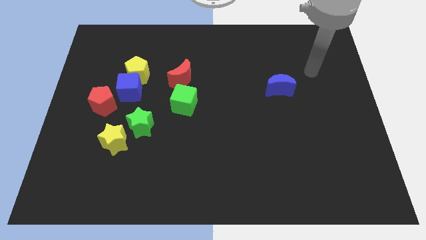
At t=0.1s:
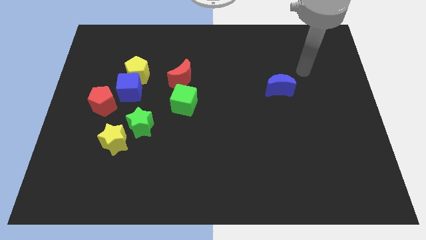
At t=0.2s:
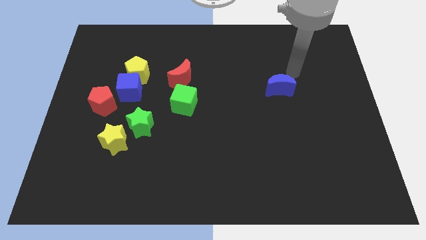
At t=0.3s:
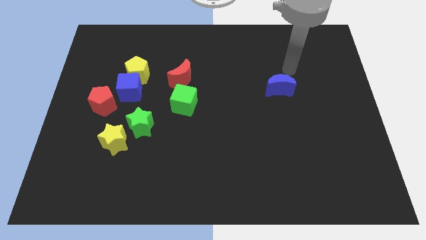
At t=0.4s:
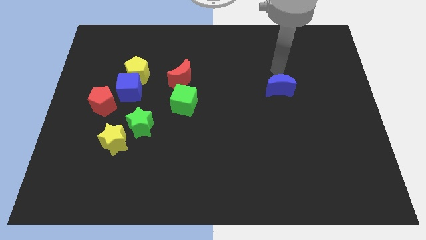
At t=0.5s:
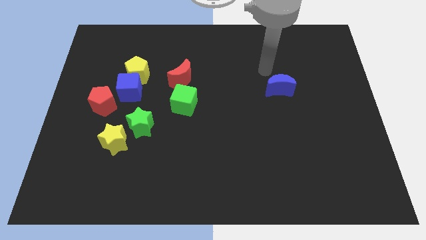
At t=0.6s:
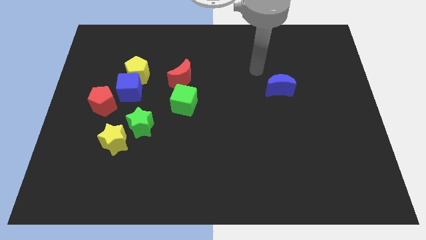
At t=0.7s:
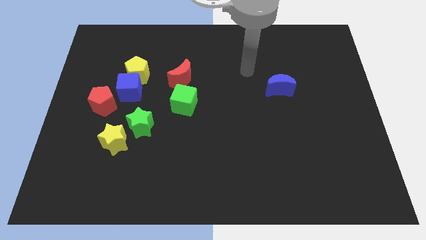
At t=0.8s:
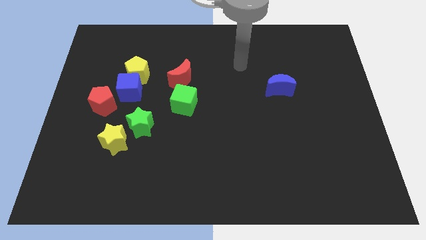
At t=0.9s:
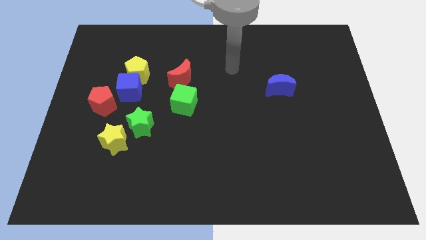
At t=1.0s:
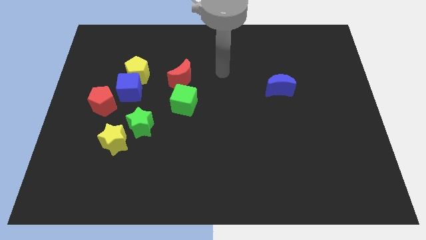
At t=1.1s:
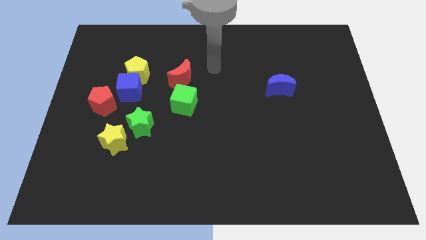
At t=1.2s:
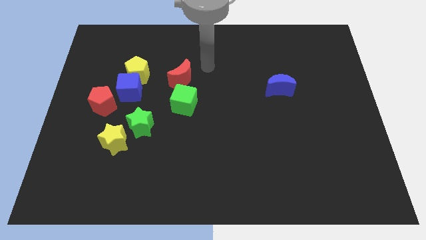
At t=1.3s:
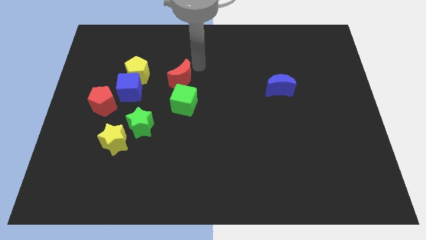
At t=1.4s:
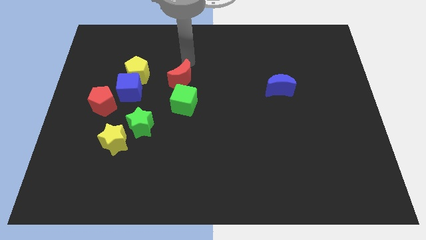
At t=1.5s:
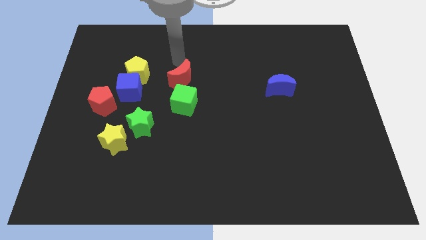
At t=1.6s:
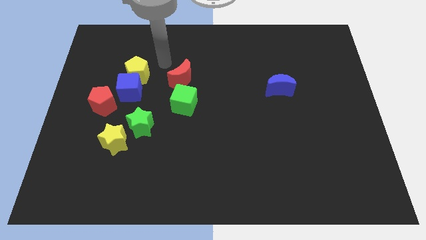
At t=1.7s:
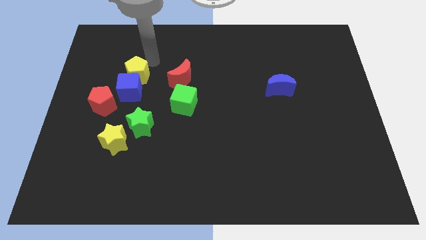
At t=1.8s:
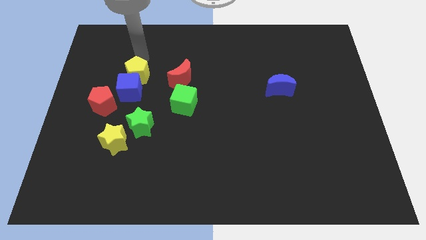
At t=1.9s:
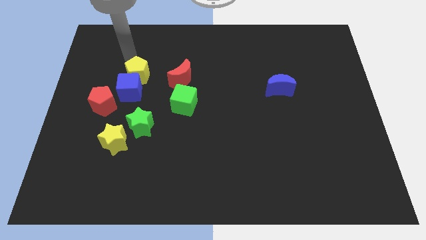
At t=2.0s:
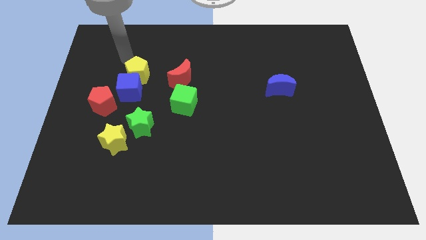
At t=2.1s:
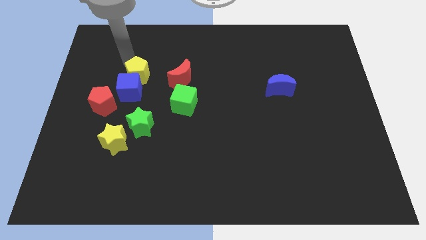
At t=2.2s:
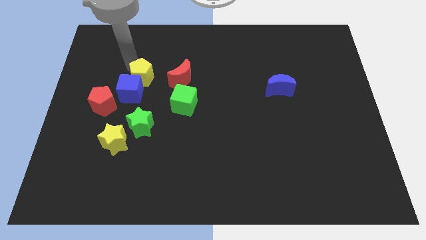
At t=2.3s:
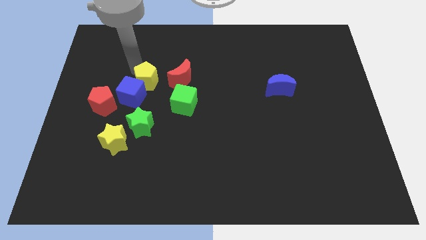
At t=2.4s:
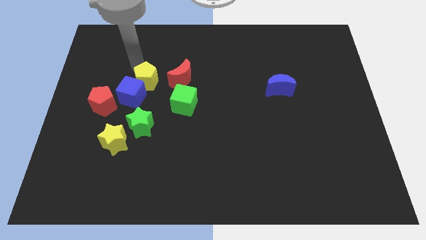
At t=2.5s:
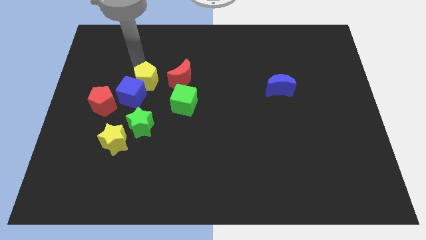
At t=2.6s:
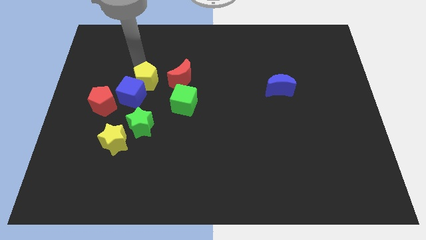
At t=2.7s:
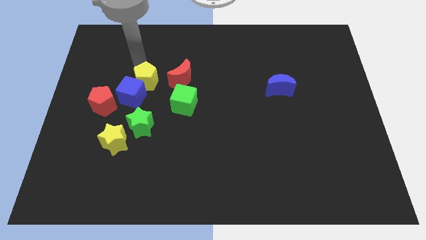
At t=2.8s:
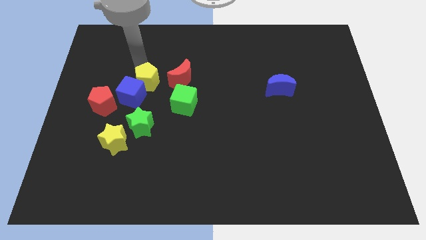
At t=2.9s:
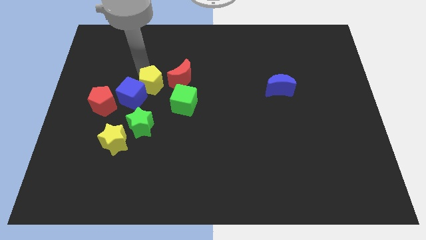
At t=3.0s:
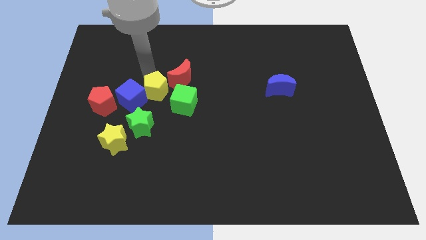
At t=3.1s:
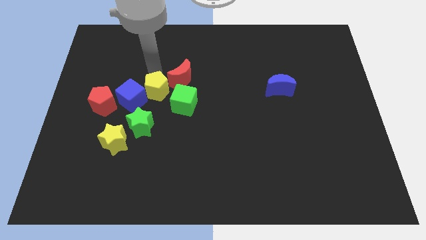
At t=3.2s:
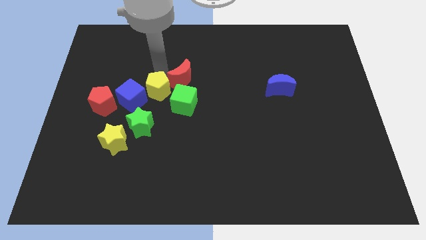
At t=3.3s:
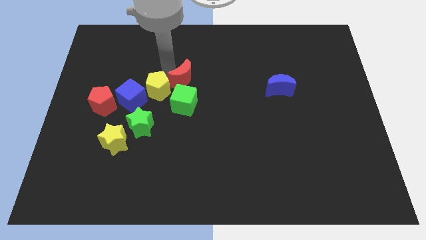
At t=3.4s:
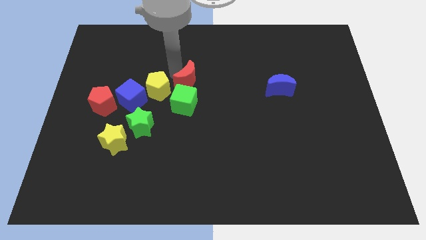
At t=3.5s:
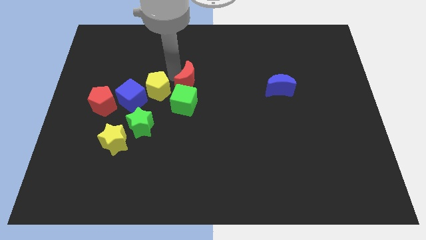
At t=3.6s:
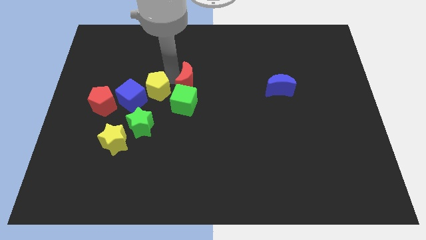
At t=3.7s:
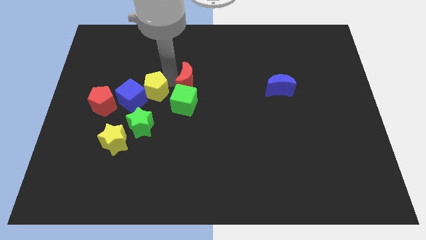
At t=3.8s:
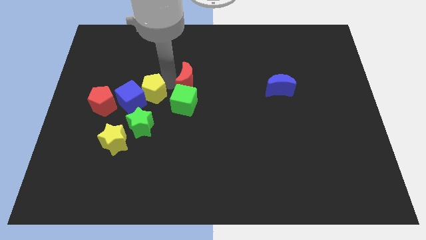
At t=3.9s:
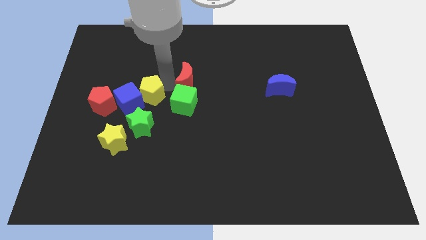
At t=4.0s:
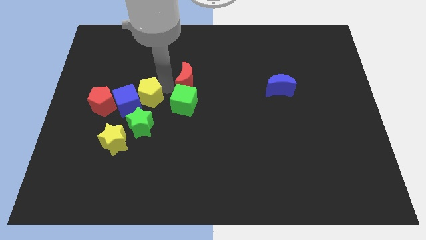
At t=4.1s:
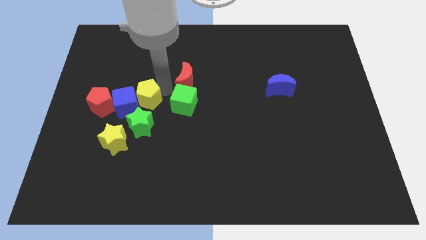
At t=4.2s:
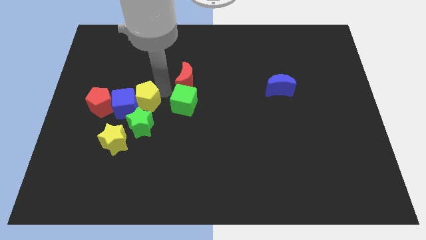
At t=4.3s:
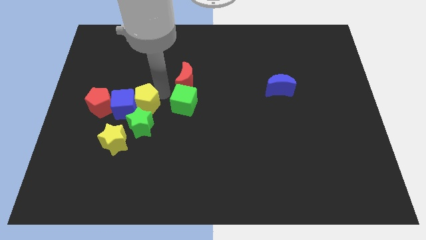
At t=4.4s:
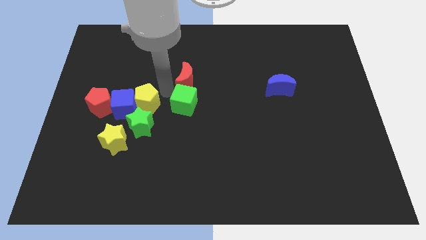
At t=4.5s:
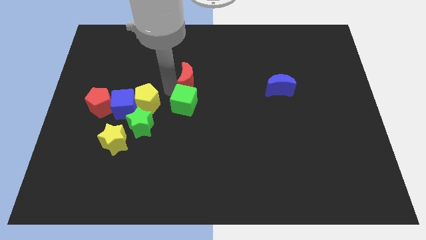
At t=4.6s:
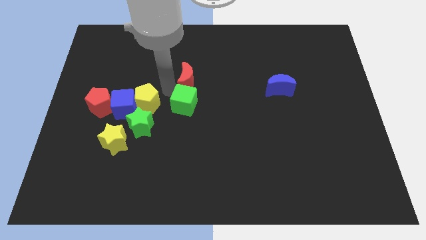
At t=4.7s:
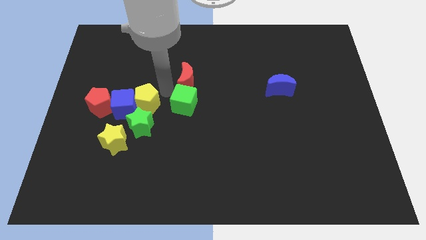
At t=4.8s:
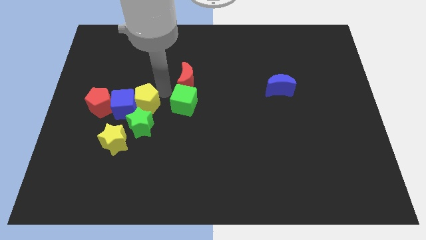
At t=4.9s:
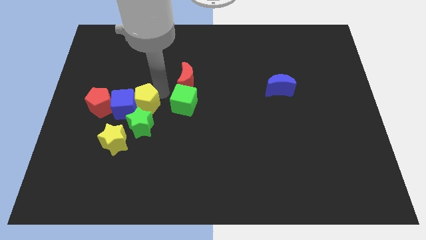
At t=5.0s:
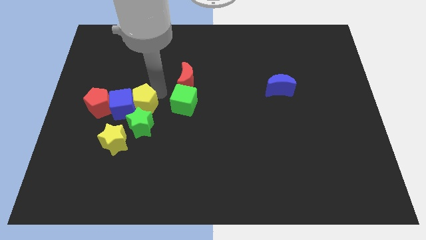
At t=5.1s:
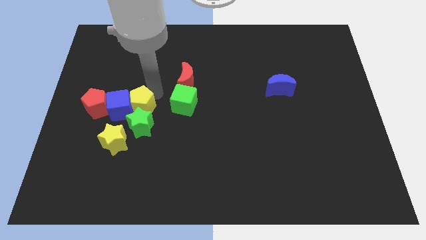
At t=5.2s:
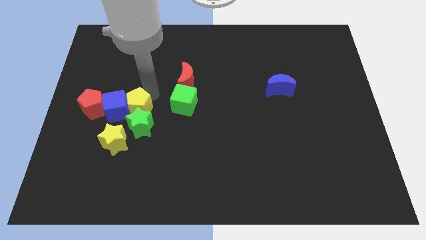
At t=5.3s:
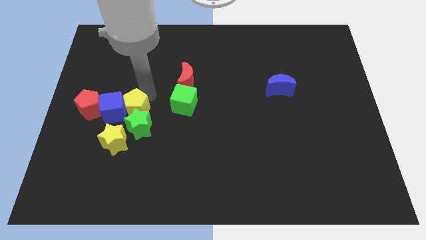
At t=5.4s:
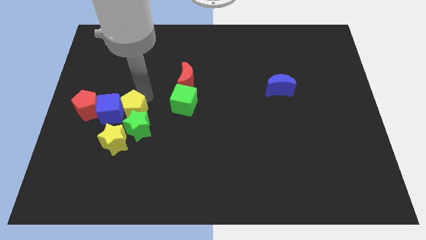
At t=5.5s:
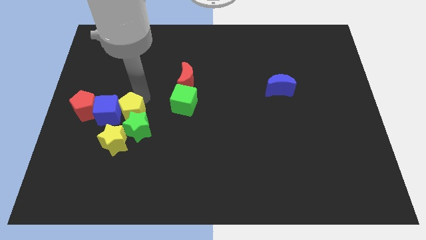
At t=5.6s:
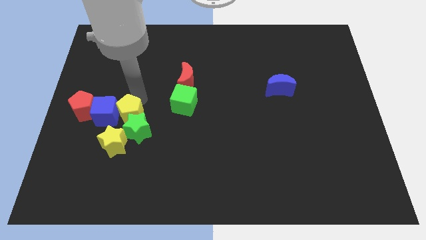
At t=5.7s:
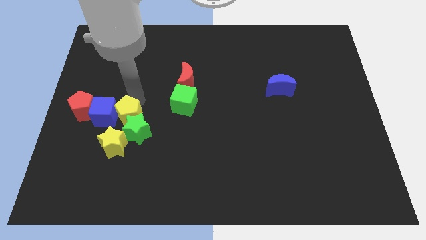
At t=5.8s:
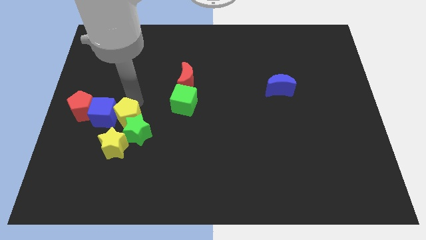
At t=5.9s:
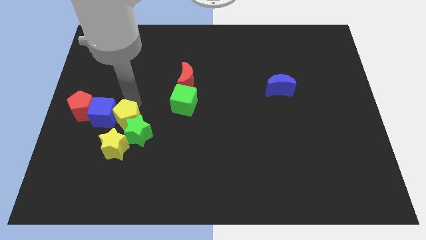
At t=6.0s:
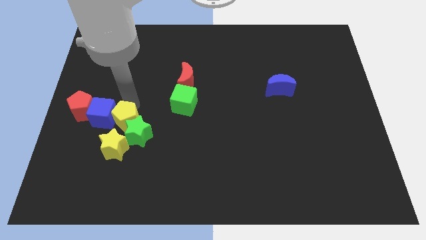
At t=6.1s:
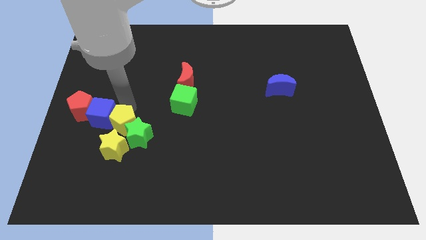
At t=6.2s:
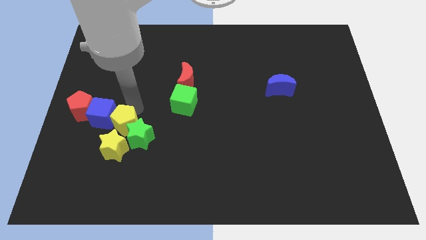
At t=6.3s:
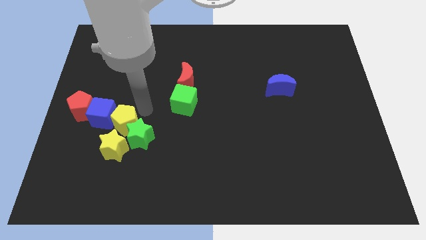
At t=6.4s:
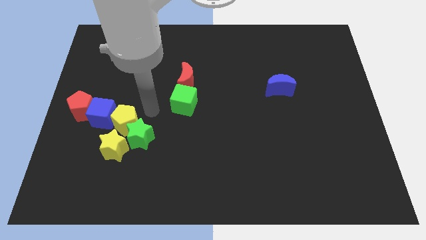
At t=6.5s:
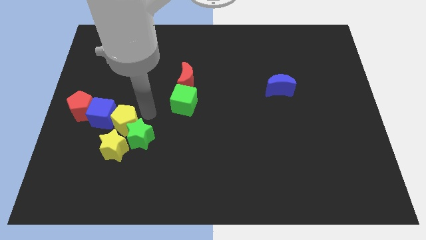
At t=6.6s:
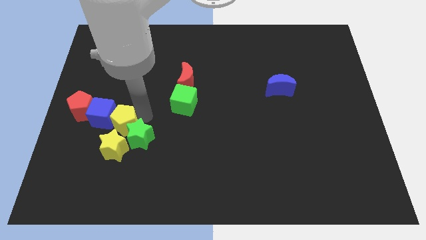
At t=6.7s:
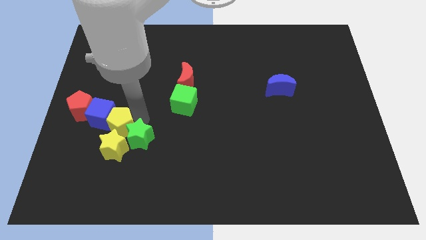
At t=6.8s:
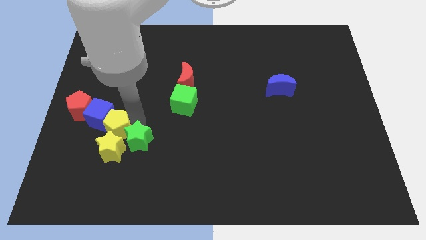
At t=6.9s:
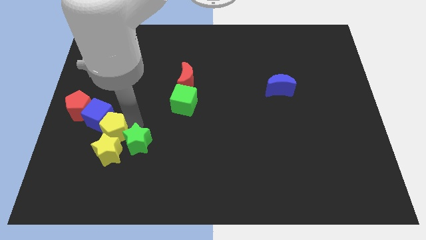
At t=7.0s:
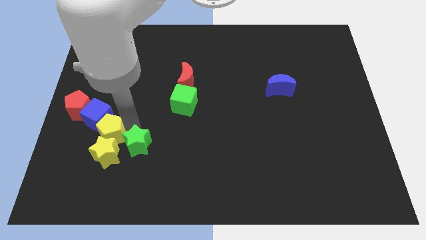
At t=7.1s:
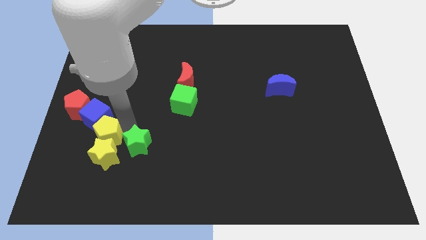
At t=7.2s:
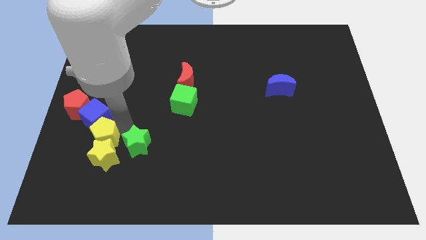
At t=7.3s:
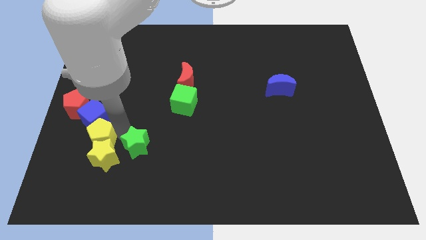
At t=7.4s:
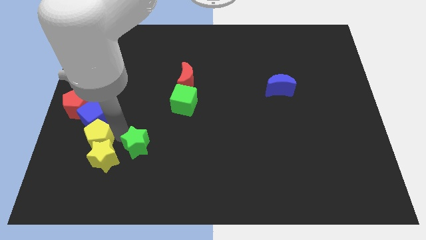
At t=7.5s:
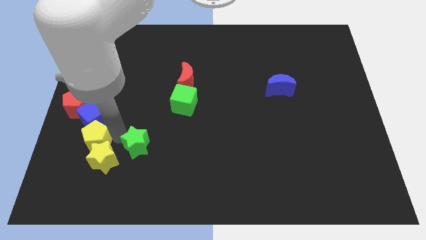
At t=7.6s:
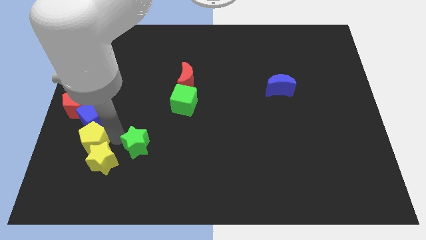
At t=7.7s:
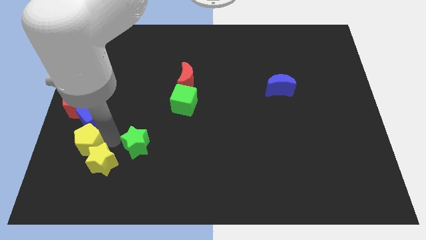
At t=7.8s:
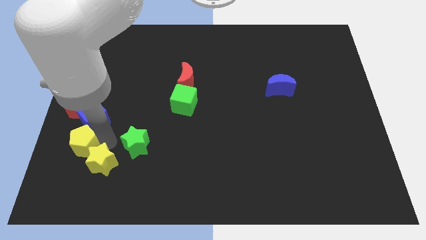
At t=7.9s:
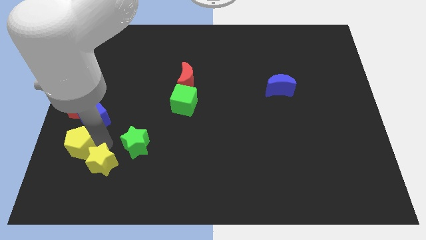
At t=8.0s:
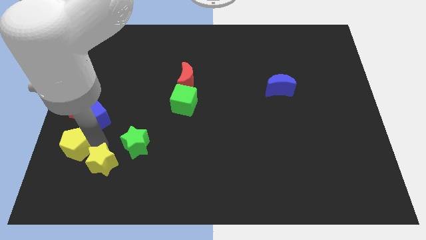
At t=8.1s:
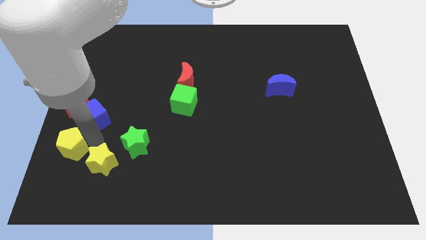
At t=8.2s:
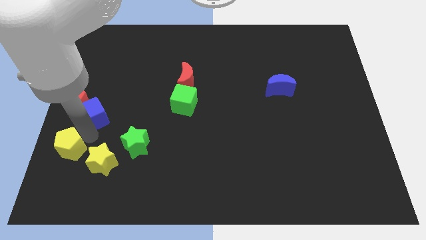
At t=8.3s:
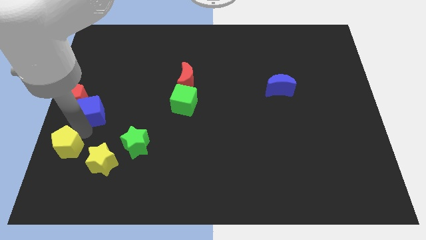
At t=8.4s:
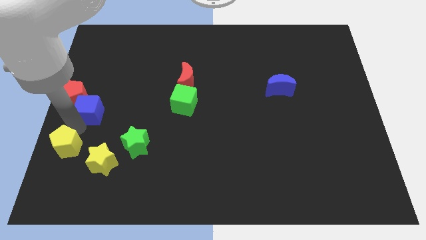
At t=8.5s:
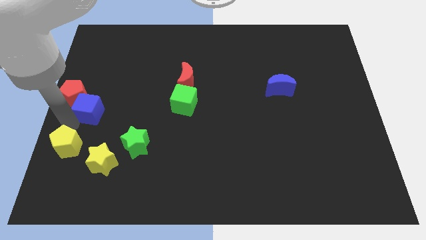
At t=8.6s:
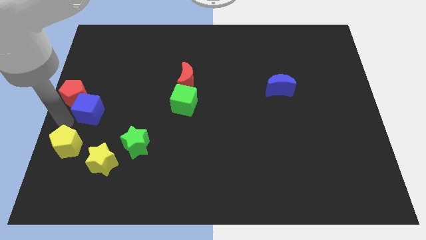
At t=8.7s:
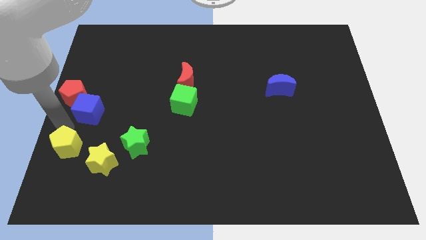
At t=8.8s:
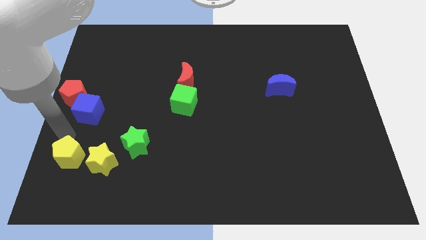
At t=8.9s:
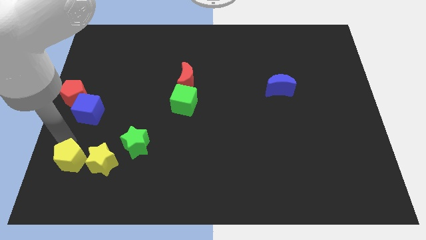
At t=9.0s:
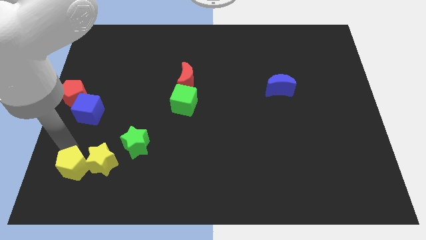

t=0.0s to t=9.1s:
move the yellow pentagon diagonally down and to the left of the yellow star
